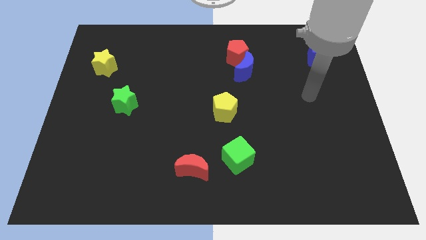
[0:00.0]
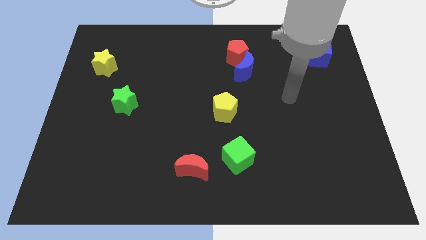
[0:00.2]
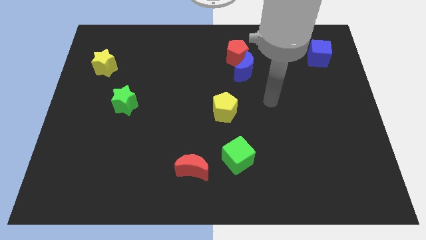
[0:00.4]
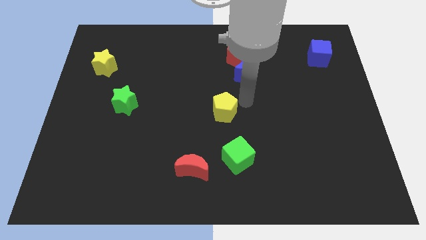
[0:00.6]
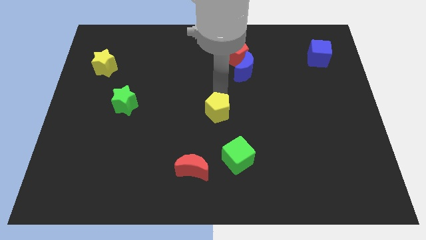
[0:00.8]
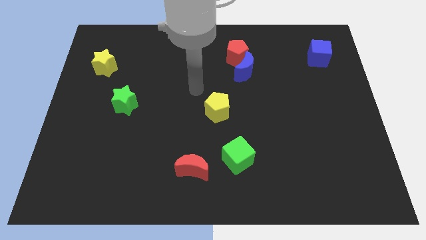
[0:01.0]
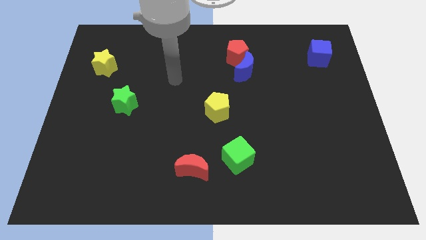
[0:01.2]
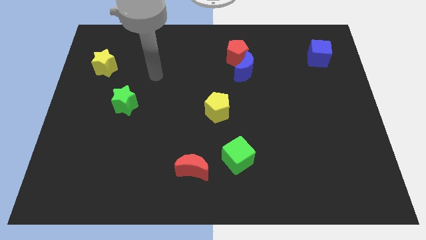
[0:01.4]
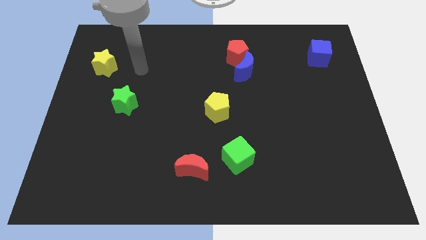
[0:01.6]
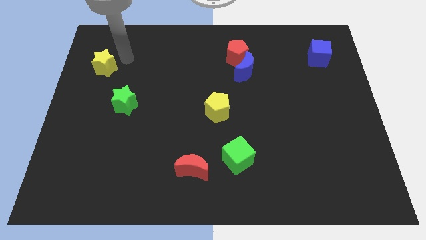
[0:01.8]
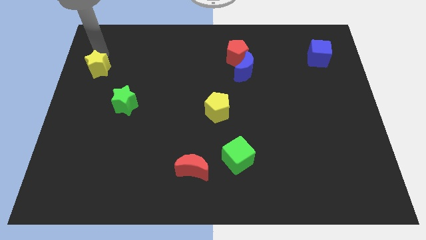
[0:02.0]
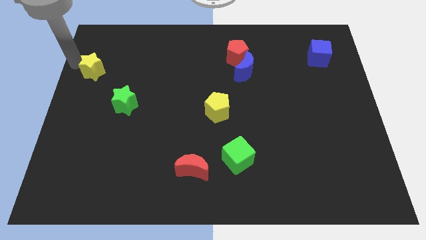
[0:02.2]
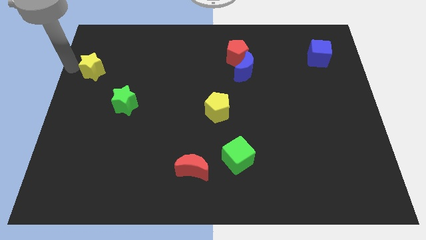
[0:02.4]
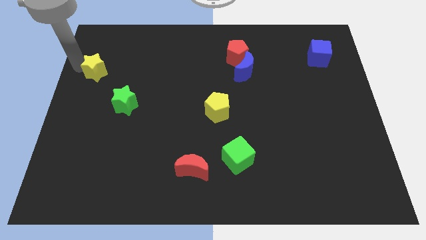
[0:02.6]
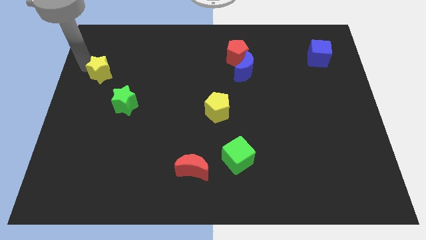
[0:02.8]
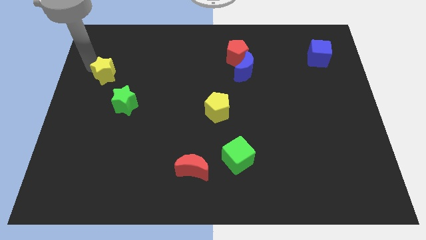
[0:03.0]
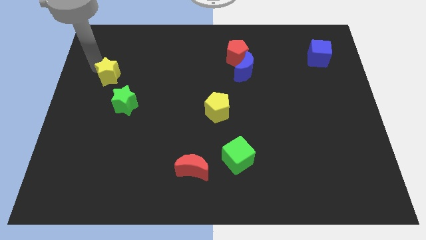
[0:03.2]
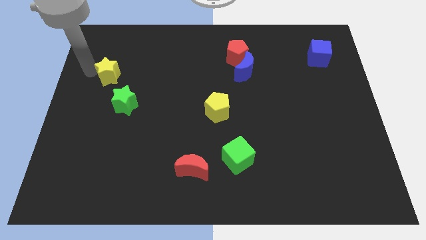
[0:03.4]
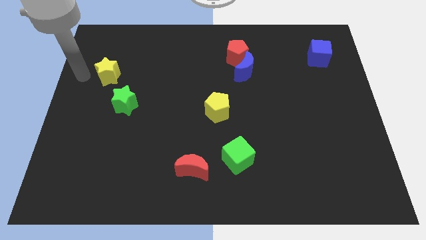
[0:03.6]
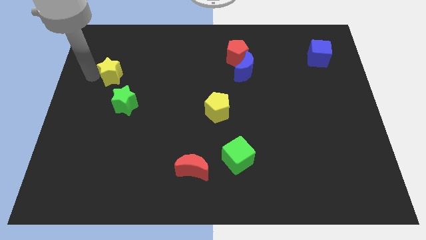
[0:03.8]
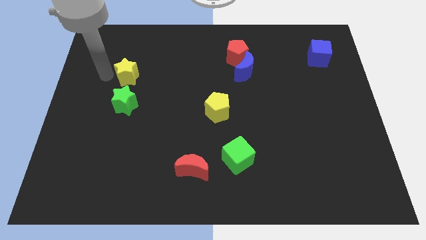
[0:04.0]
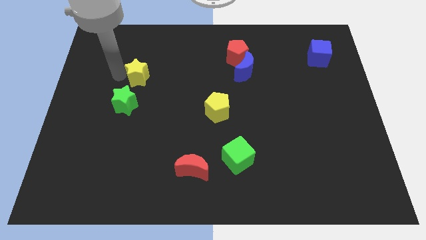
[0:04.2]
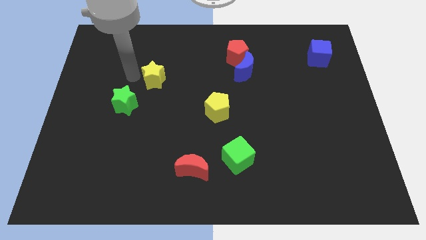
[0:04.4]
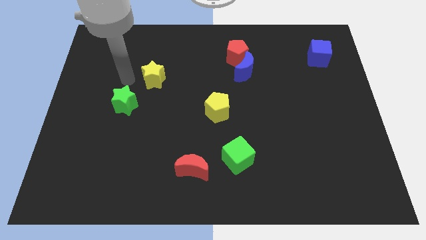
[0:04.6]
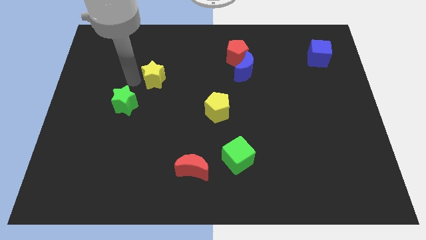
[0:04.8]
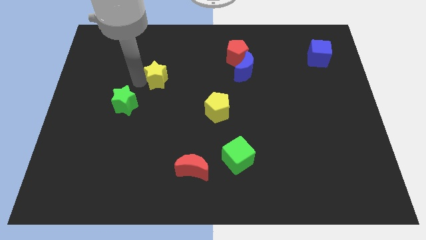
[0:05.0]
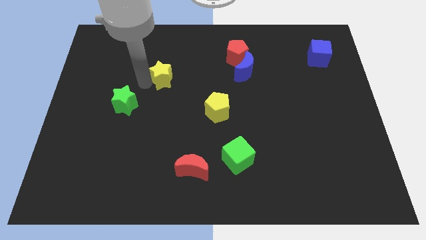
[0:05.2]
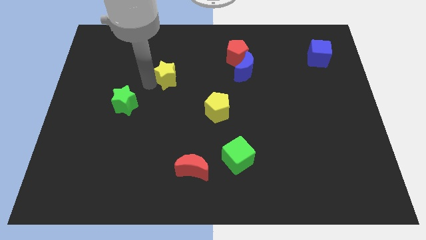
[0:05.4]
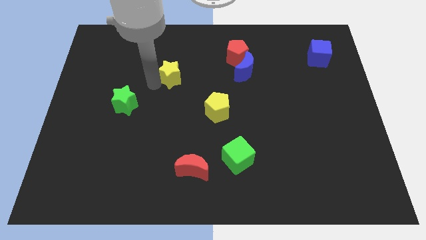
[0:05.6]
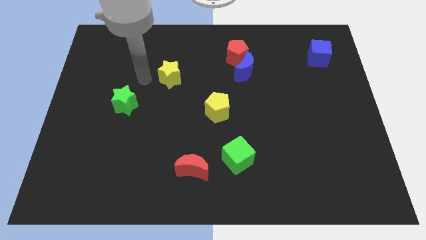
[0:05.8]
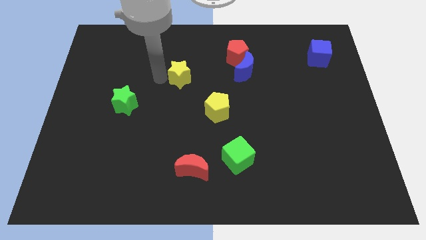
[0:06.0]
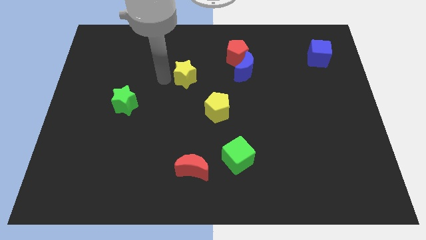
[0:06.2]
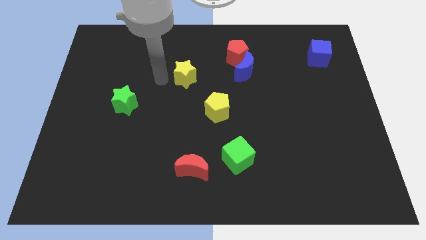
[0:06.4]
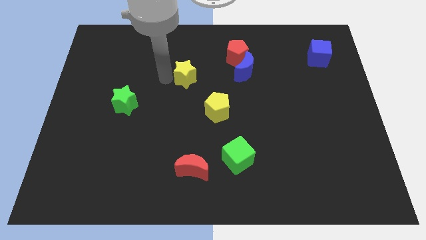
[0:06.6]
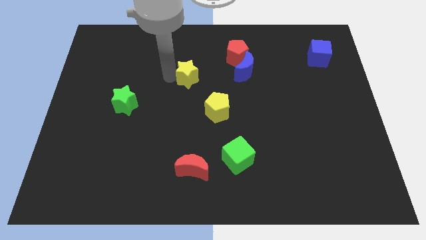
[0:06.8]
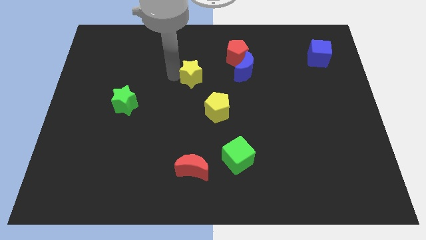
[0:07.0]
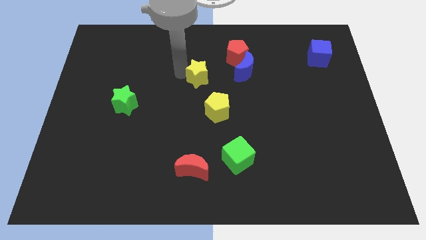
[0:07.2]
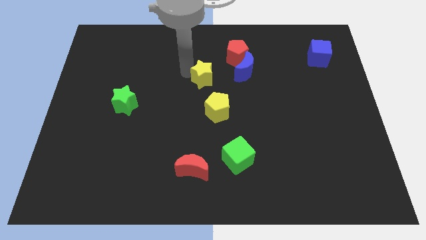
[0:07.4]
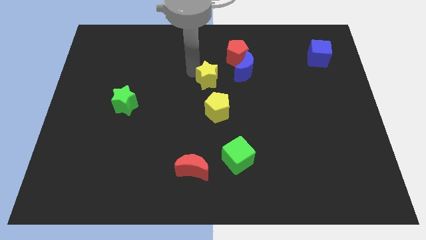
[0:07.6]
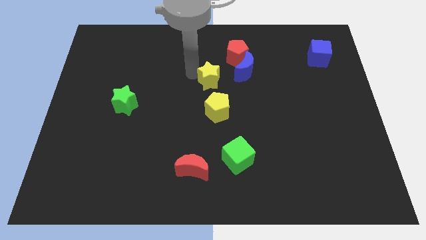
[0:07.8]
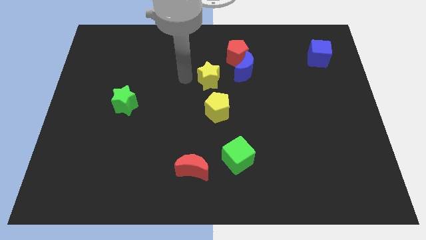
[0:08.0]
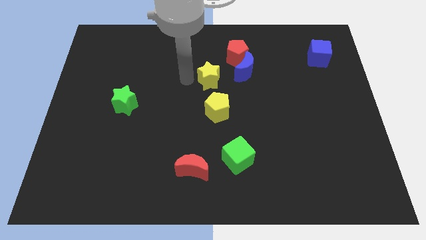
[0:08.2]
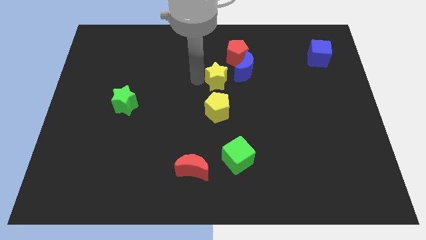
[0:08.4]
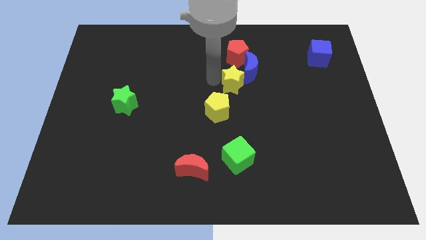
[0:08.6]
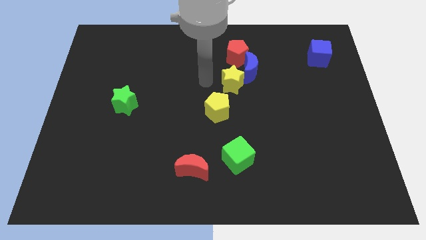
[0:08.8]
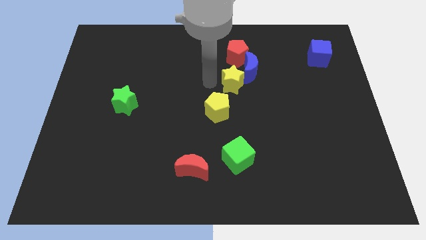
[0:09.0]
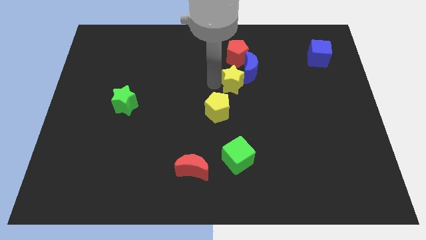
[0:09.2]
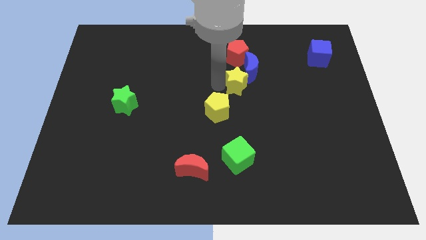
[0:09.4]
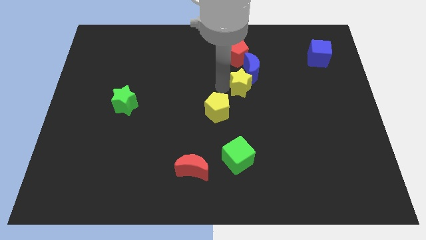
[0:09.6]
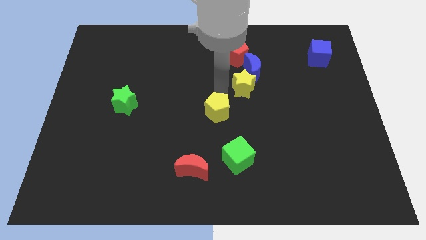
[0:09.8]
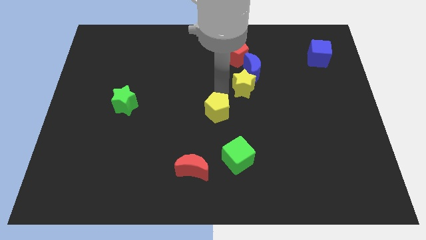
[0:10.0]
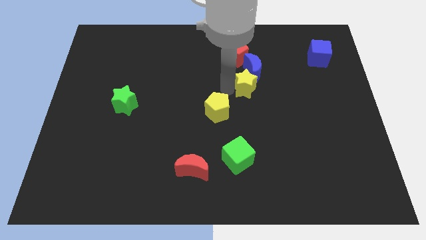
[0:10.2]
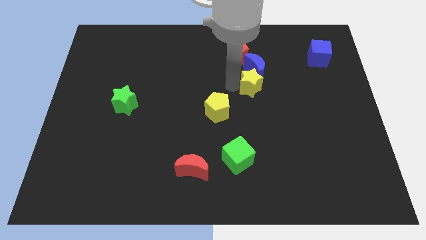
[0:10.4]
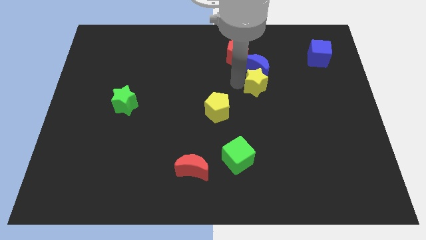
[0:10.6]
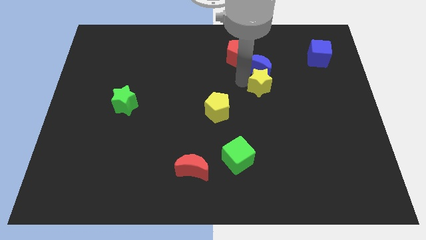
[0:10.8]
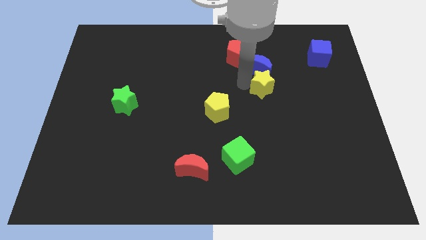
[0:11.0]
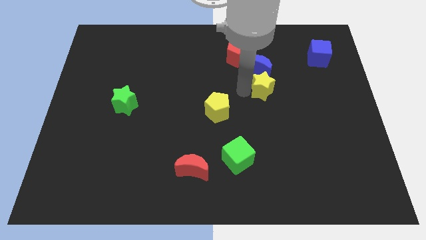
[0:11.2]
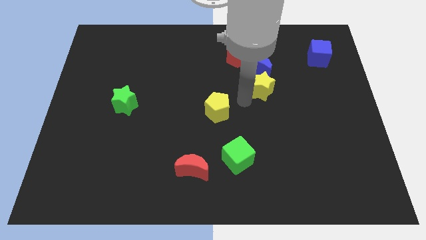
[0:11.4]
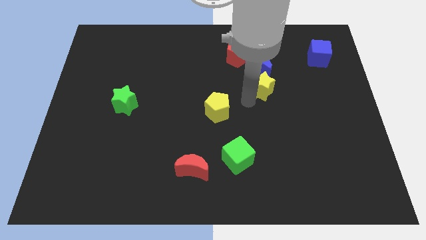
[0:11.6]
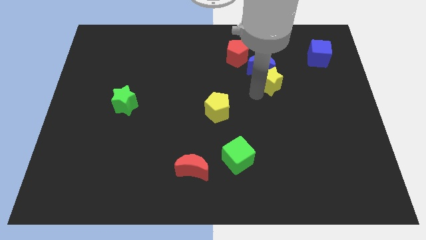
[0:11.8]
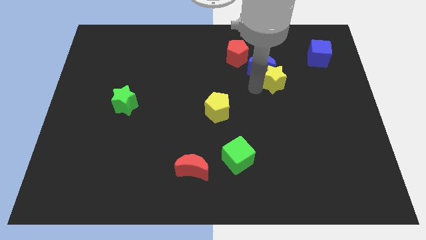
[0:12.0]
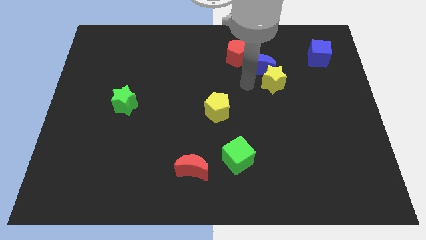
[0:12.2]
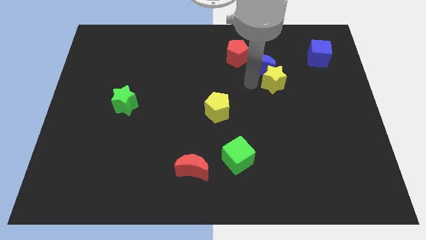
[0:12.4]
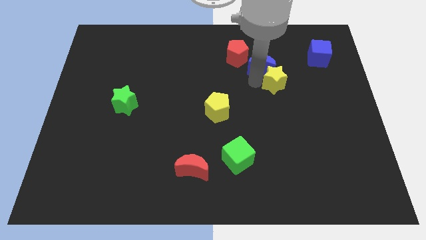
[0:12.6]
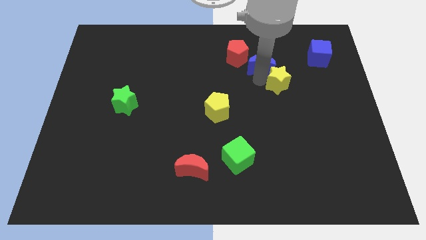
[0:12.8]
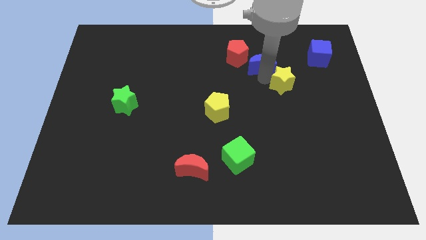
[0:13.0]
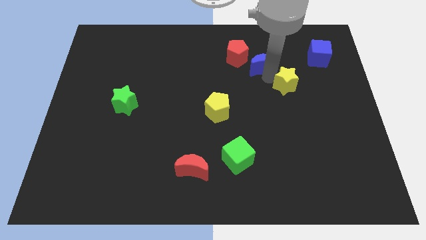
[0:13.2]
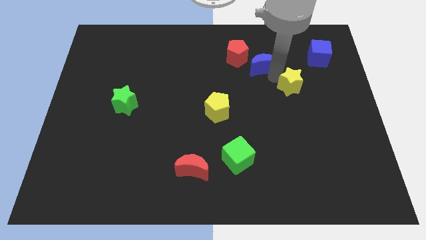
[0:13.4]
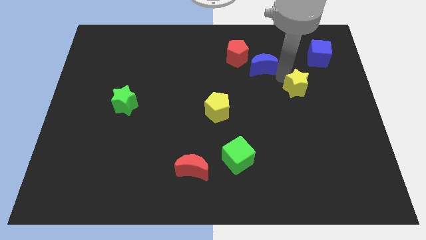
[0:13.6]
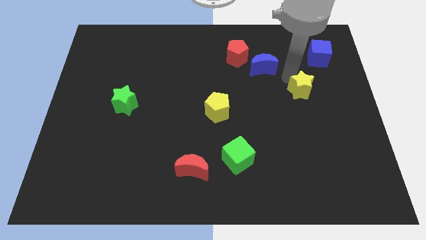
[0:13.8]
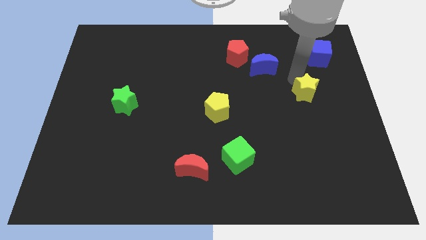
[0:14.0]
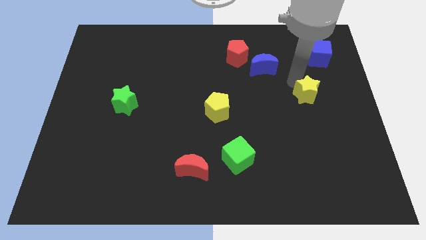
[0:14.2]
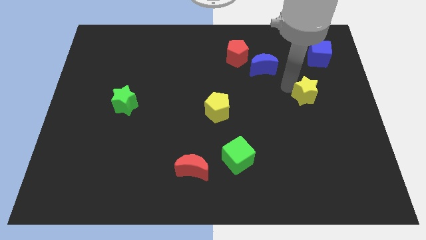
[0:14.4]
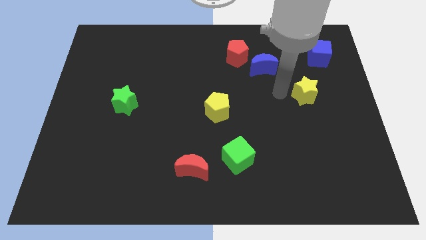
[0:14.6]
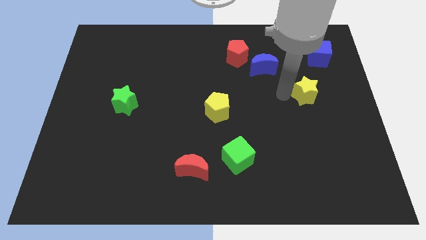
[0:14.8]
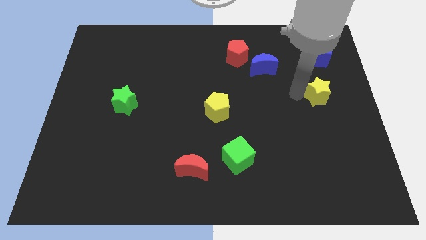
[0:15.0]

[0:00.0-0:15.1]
move the yellow star to the center right
